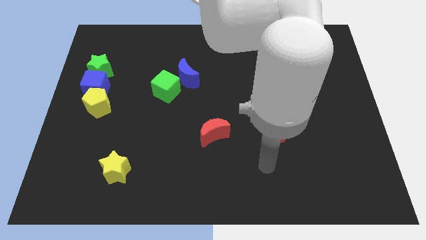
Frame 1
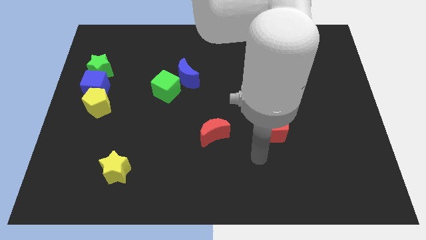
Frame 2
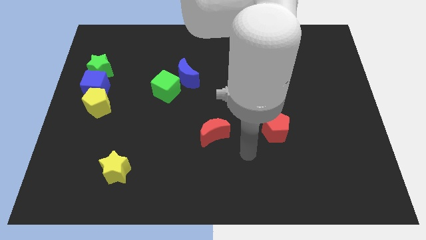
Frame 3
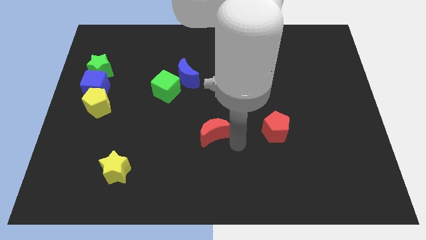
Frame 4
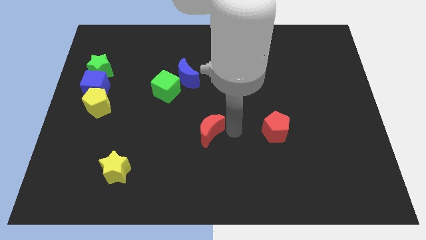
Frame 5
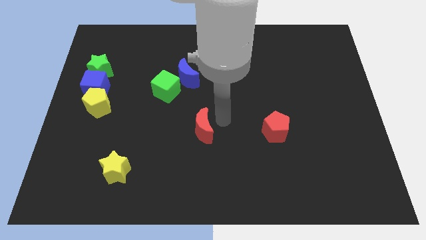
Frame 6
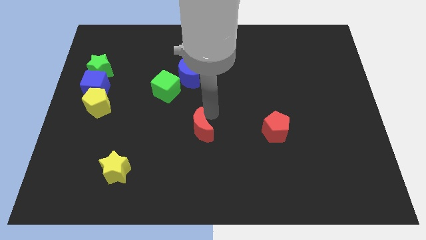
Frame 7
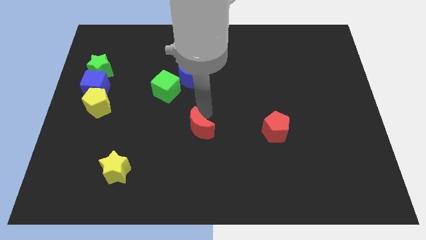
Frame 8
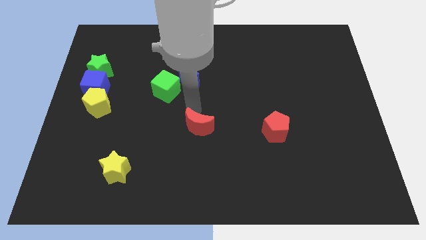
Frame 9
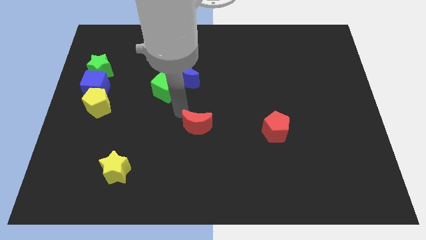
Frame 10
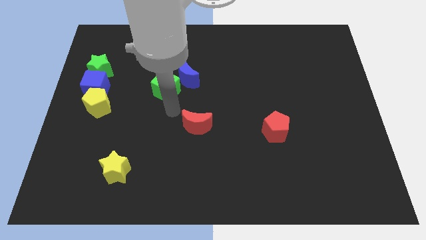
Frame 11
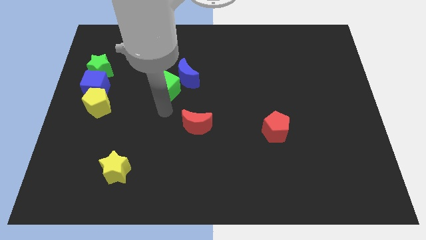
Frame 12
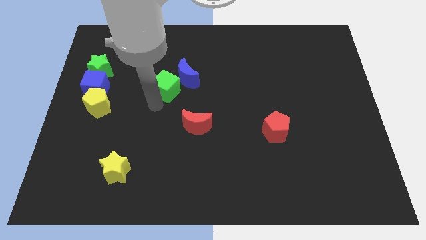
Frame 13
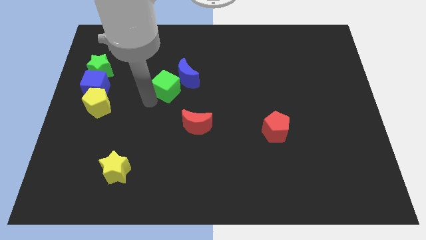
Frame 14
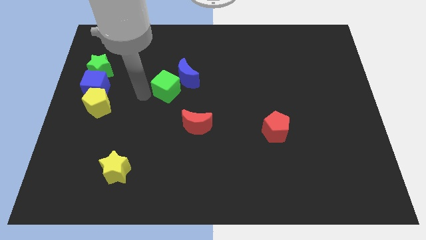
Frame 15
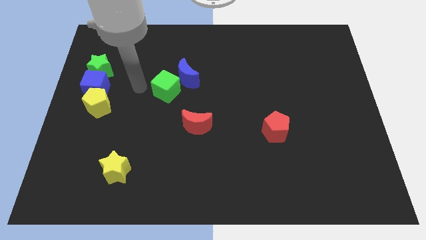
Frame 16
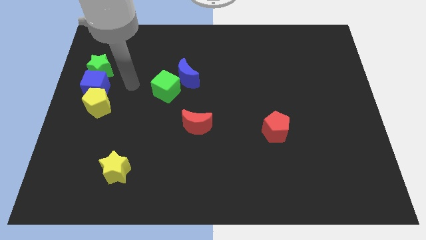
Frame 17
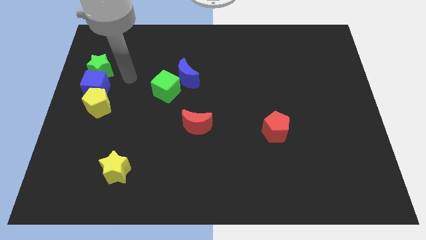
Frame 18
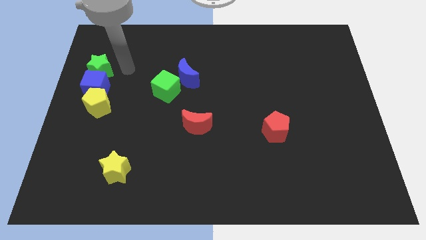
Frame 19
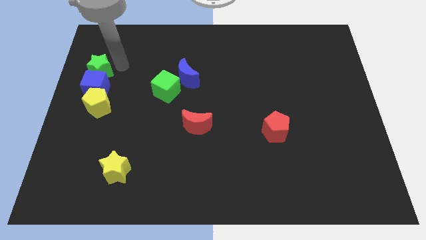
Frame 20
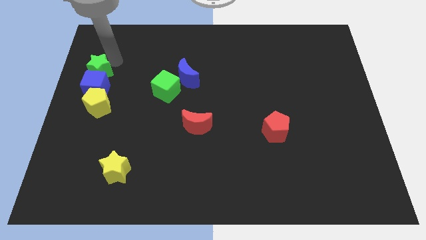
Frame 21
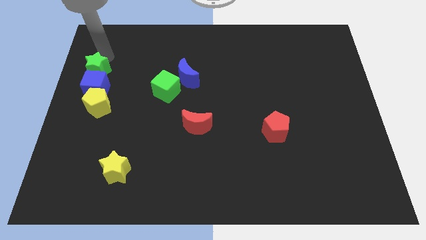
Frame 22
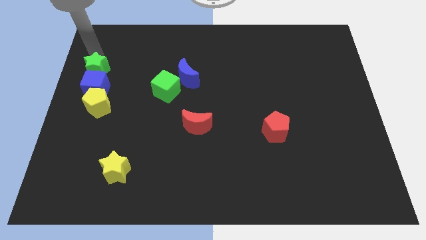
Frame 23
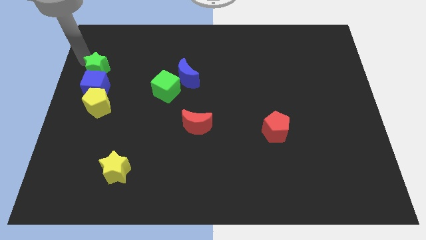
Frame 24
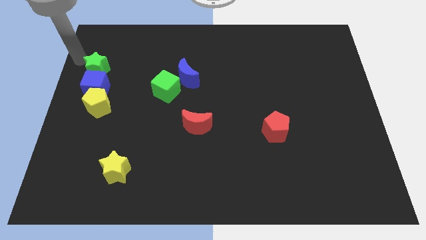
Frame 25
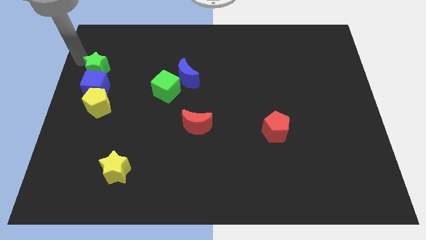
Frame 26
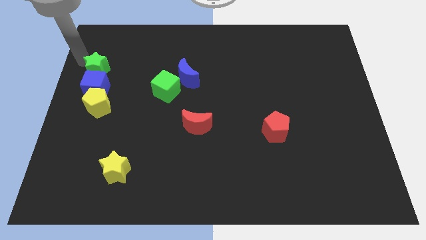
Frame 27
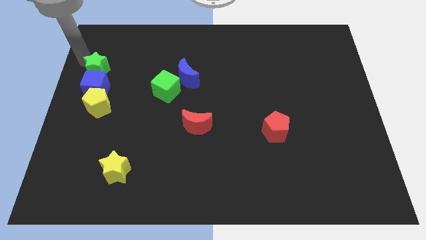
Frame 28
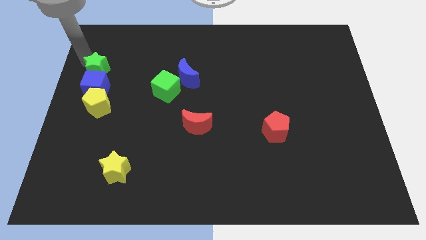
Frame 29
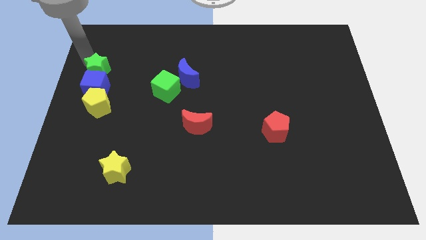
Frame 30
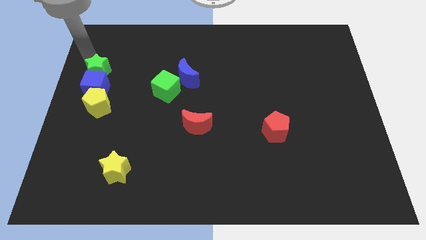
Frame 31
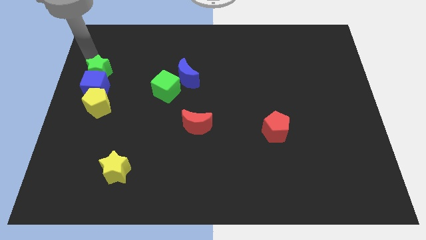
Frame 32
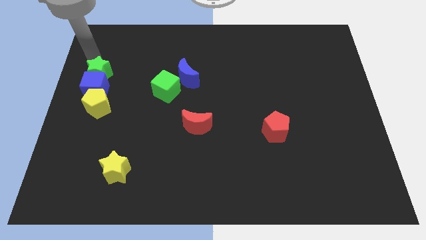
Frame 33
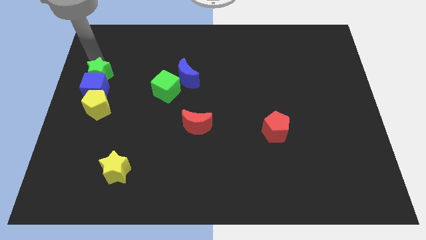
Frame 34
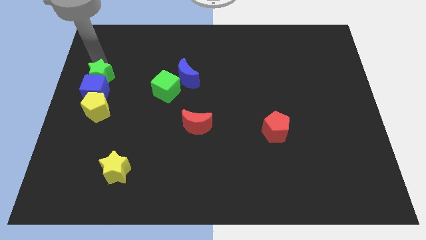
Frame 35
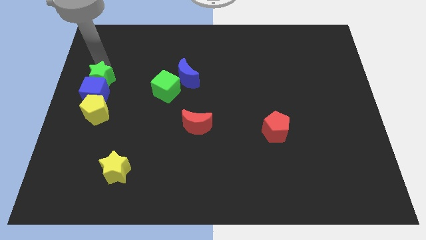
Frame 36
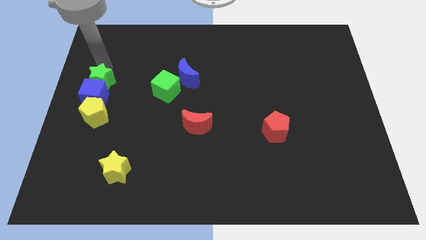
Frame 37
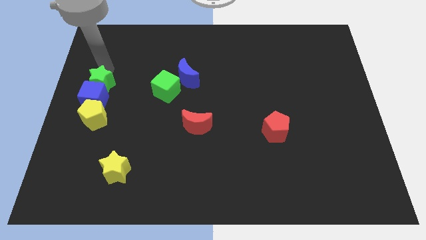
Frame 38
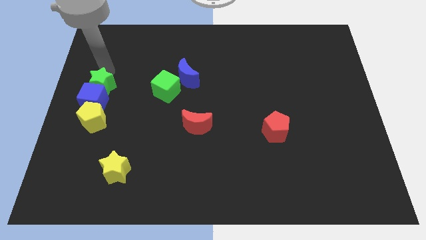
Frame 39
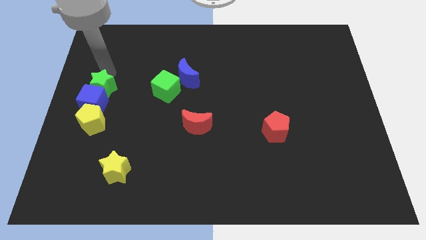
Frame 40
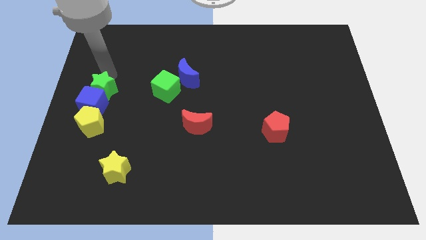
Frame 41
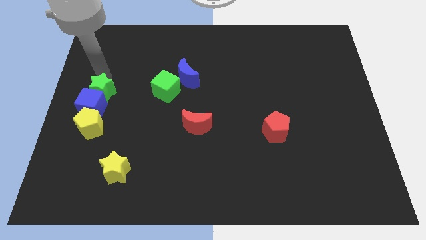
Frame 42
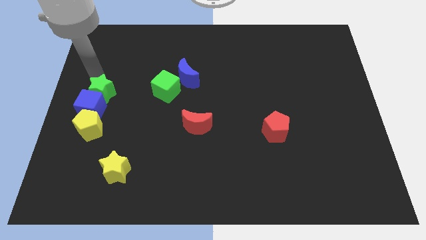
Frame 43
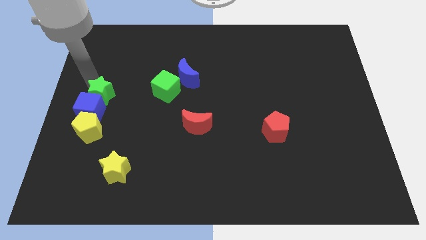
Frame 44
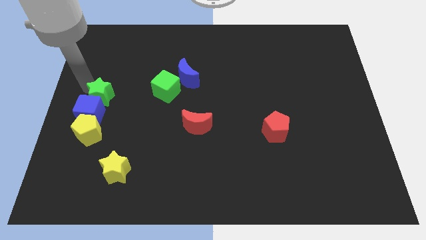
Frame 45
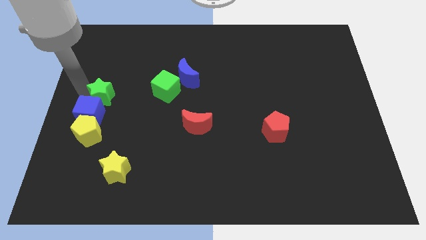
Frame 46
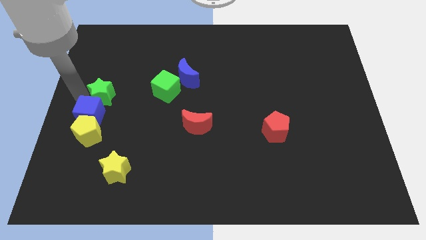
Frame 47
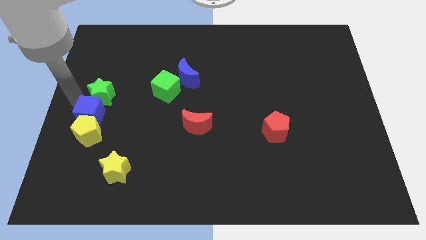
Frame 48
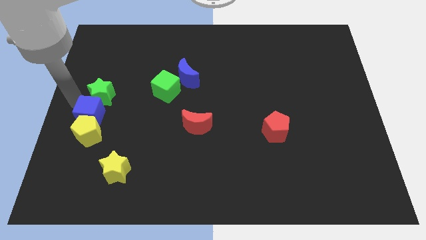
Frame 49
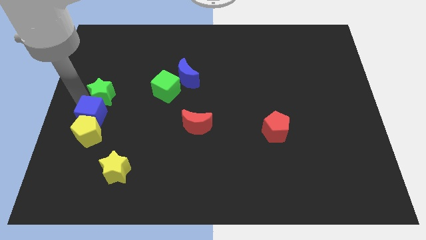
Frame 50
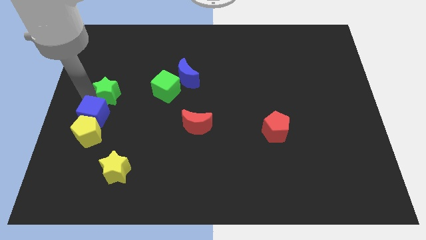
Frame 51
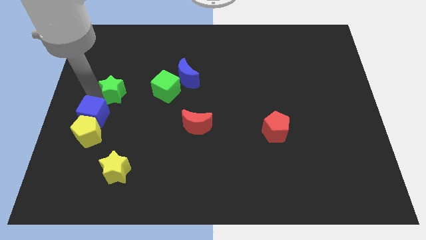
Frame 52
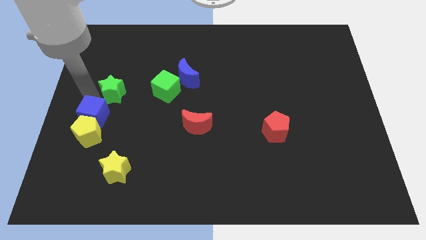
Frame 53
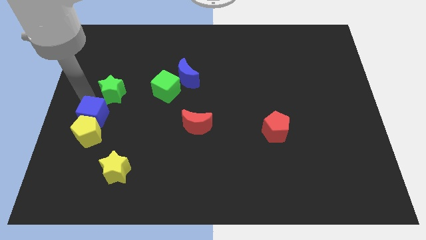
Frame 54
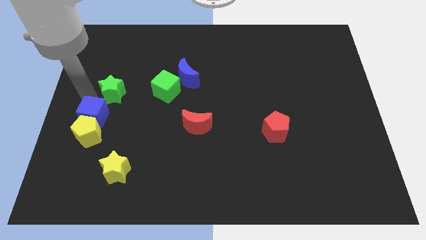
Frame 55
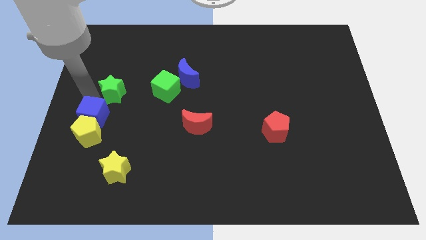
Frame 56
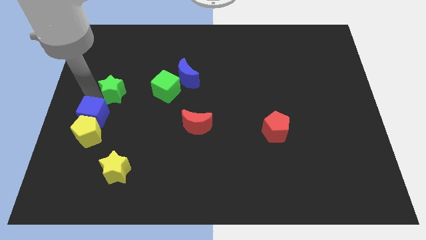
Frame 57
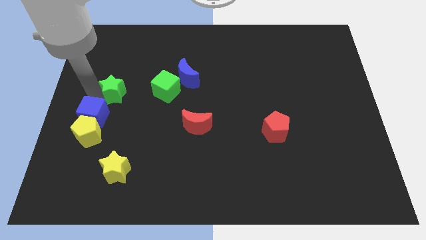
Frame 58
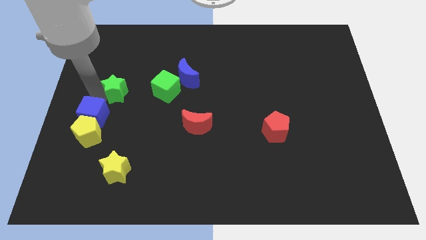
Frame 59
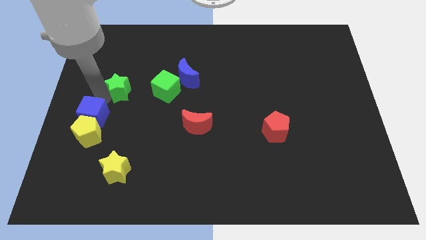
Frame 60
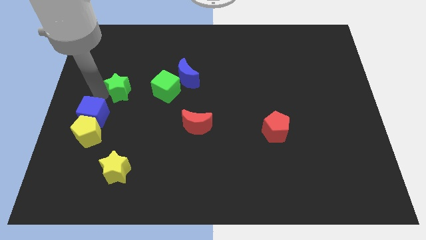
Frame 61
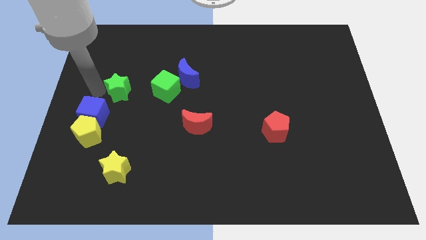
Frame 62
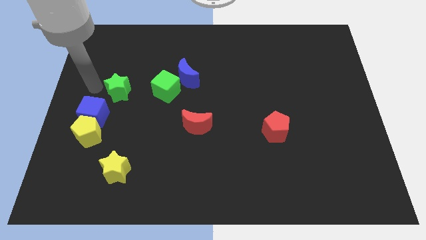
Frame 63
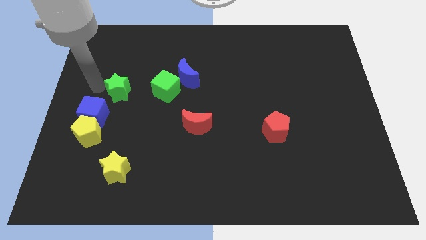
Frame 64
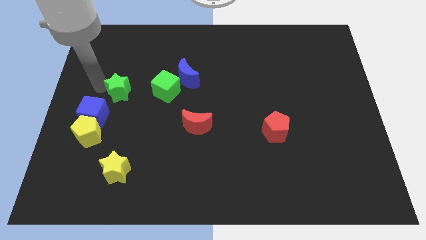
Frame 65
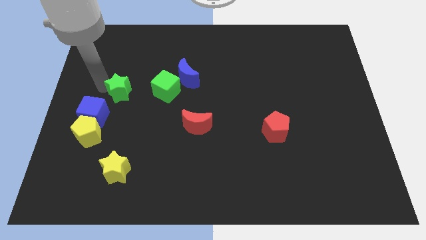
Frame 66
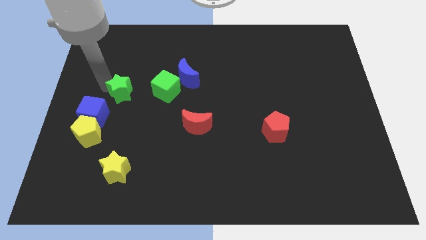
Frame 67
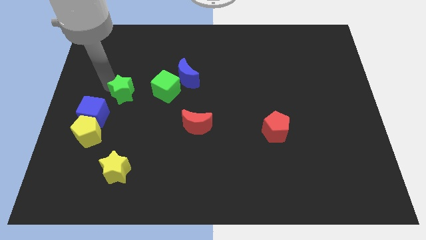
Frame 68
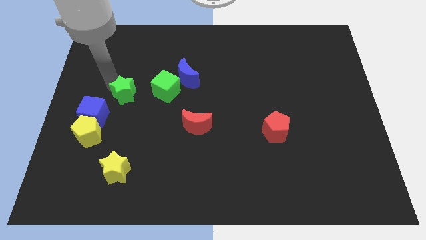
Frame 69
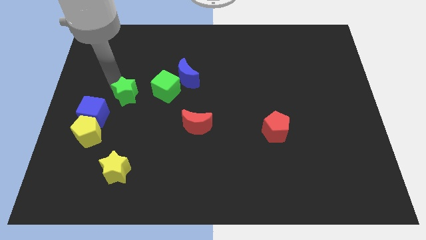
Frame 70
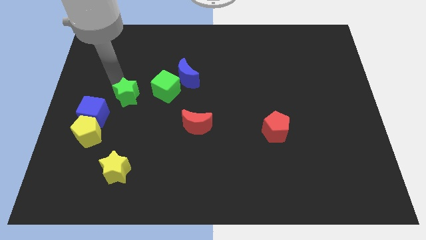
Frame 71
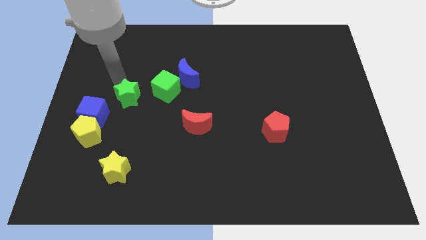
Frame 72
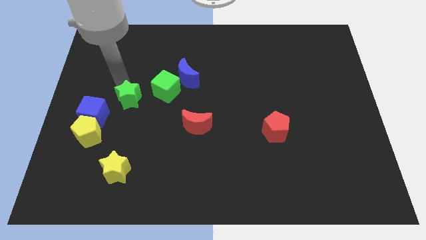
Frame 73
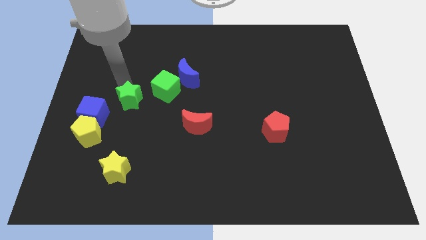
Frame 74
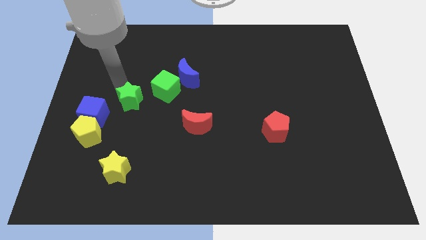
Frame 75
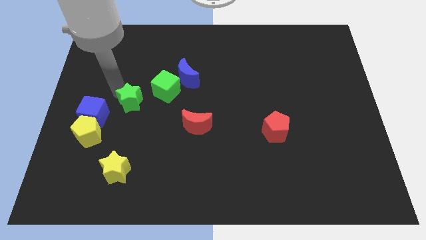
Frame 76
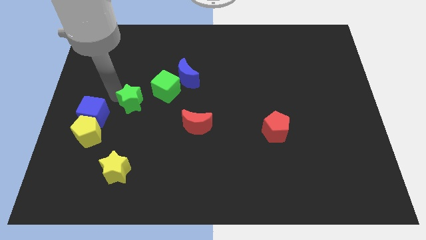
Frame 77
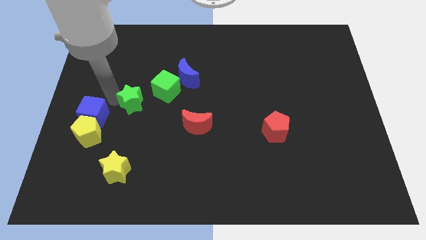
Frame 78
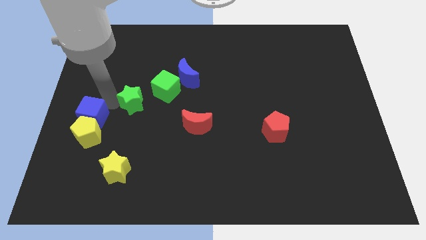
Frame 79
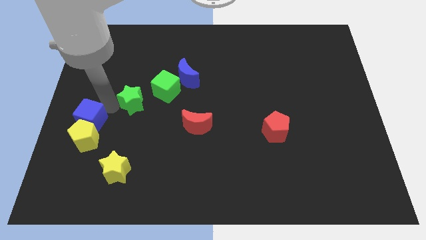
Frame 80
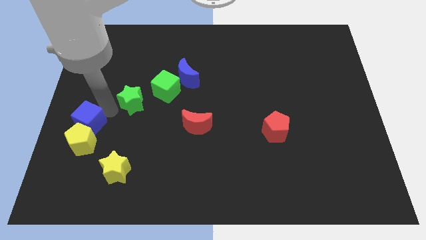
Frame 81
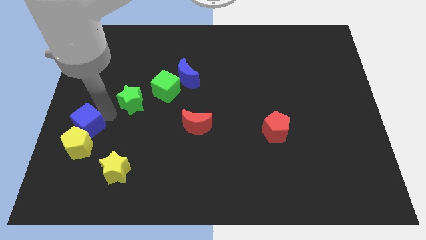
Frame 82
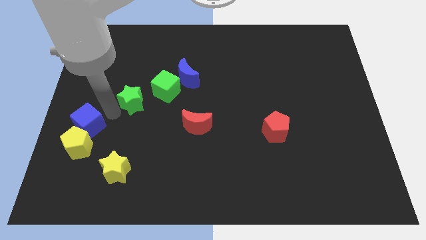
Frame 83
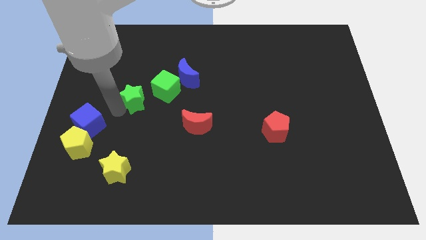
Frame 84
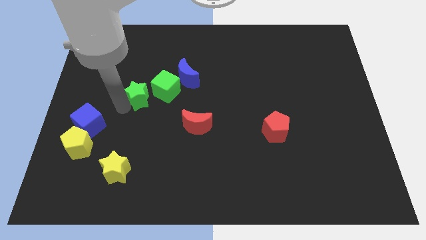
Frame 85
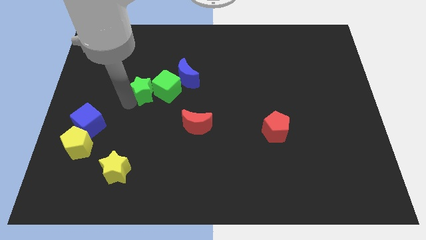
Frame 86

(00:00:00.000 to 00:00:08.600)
move the green star next to the green cube
